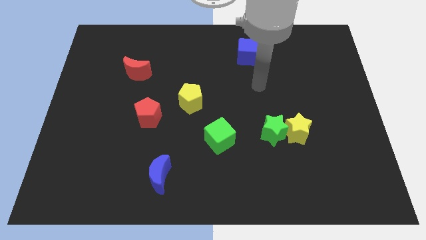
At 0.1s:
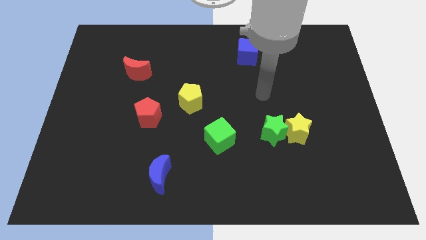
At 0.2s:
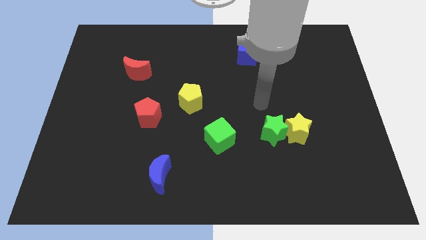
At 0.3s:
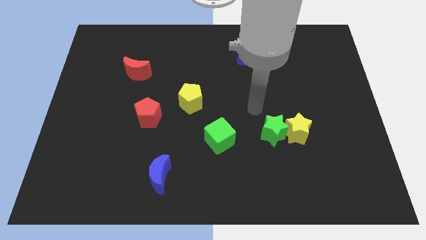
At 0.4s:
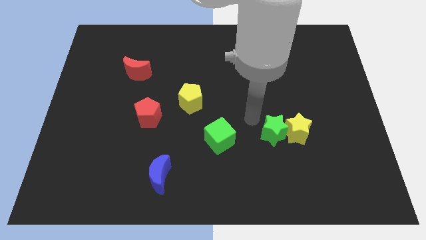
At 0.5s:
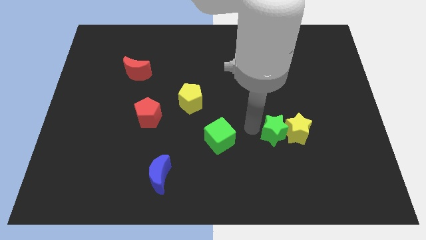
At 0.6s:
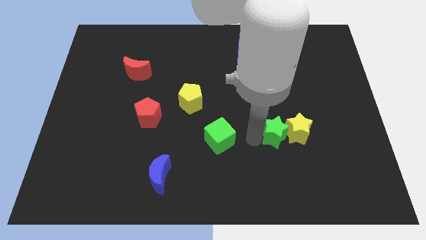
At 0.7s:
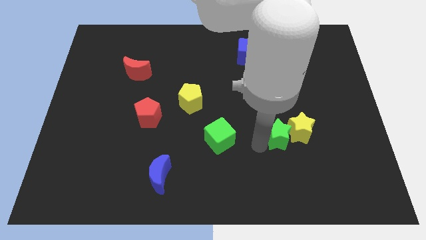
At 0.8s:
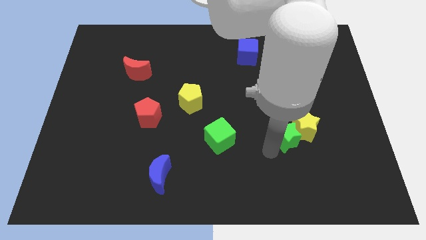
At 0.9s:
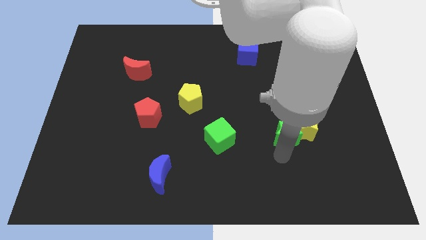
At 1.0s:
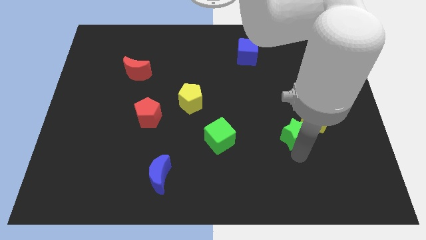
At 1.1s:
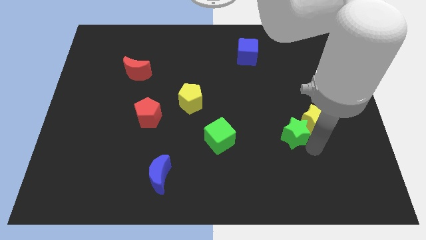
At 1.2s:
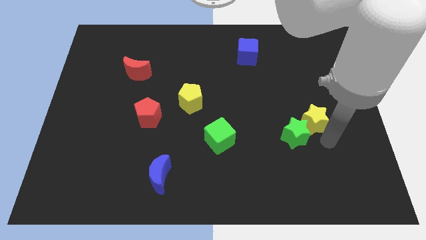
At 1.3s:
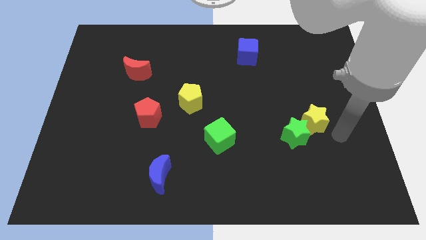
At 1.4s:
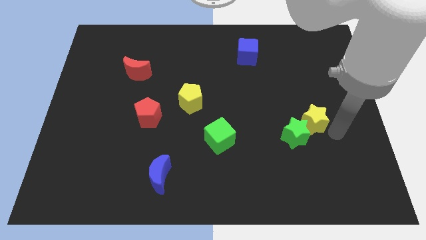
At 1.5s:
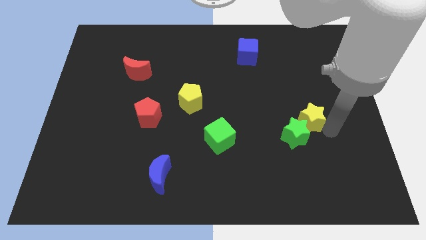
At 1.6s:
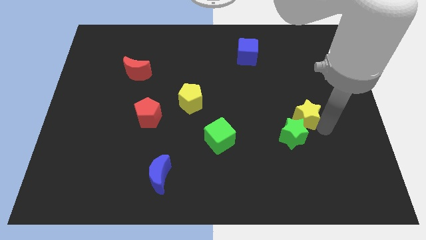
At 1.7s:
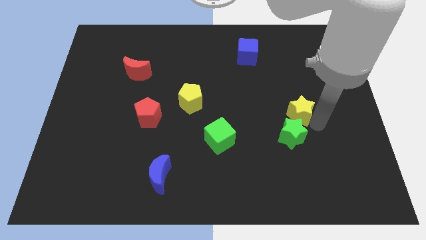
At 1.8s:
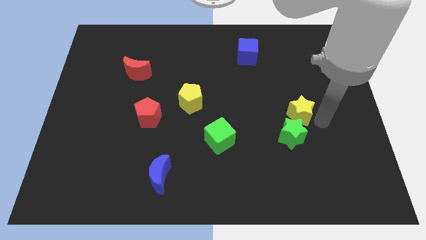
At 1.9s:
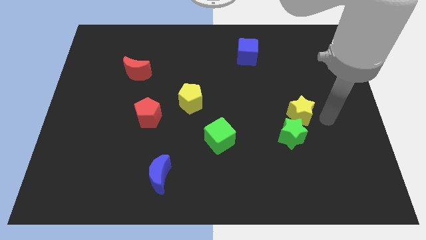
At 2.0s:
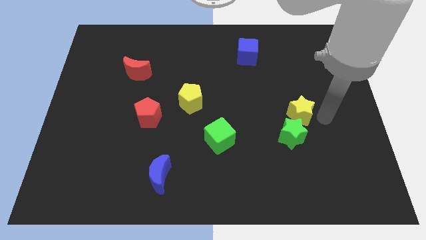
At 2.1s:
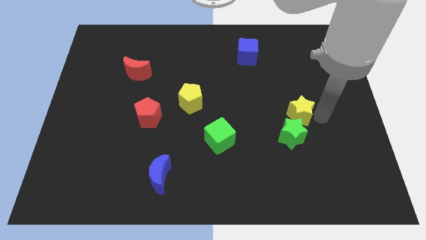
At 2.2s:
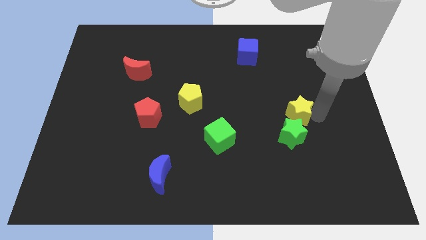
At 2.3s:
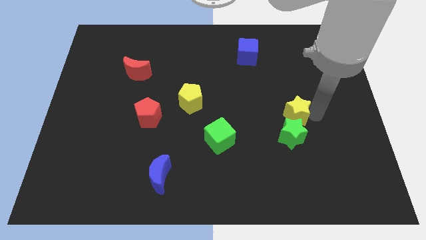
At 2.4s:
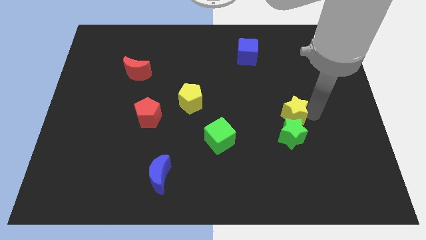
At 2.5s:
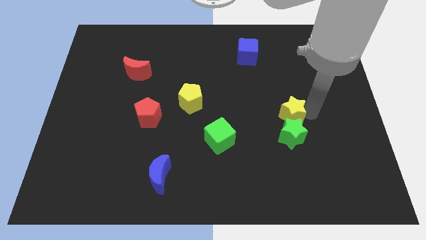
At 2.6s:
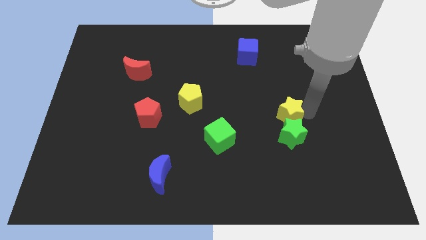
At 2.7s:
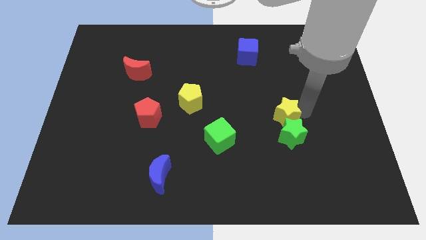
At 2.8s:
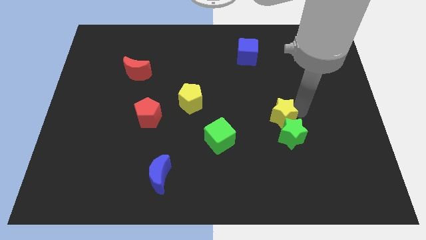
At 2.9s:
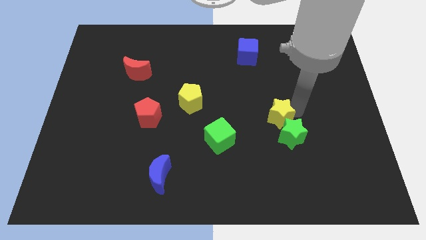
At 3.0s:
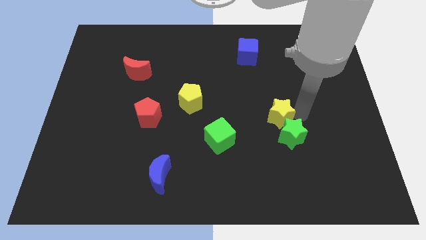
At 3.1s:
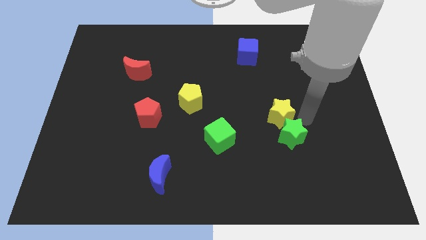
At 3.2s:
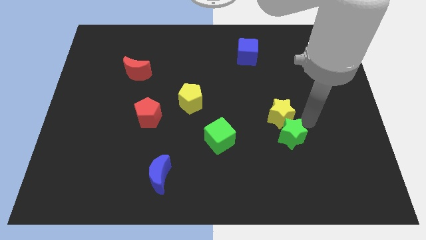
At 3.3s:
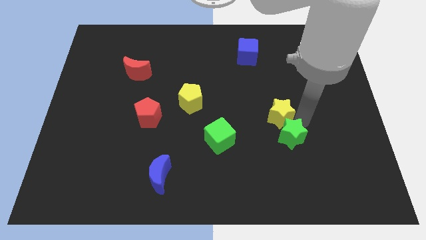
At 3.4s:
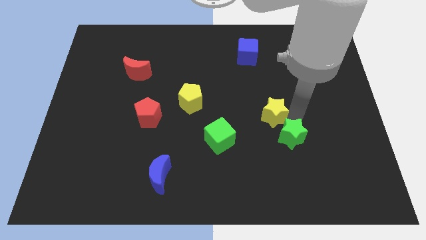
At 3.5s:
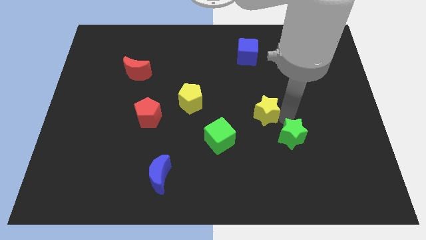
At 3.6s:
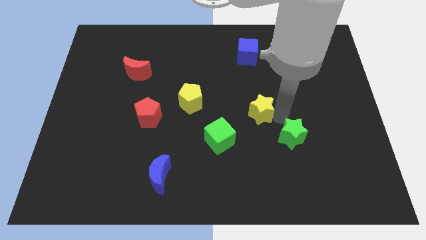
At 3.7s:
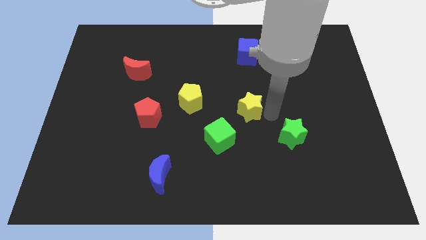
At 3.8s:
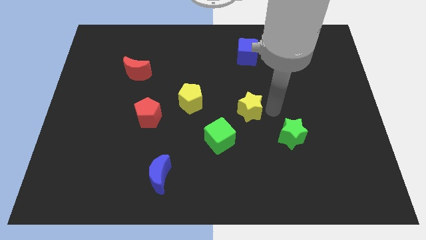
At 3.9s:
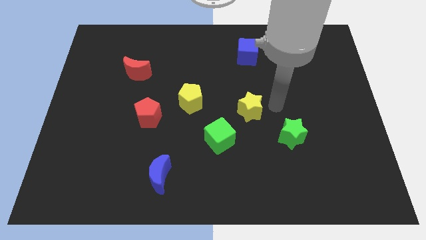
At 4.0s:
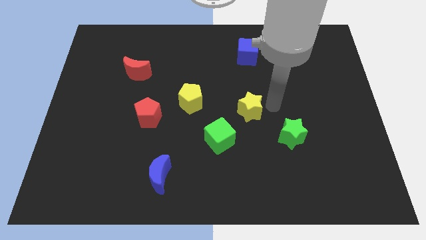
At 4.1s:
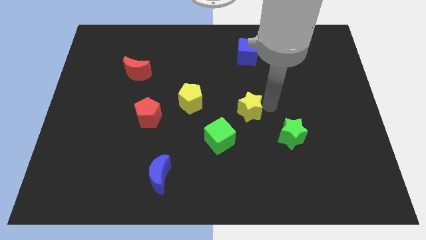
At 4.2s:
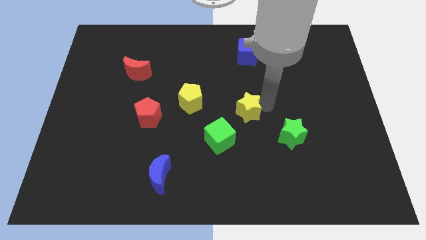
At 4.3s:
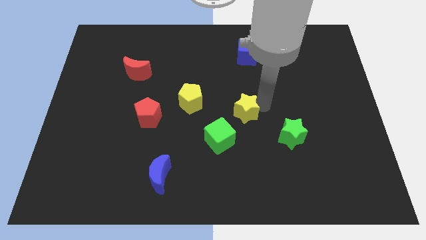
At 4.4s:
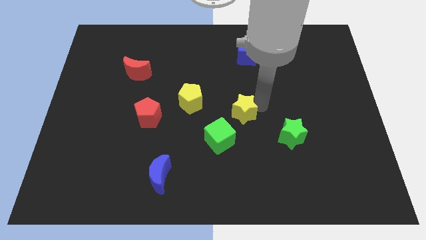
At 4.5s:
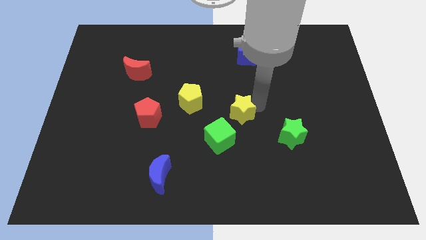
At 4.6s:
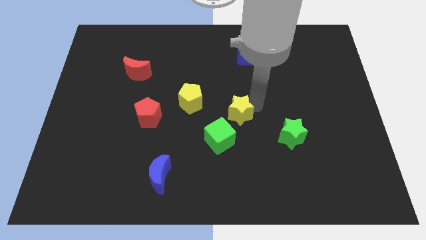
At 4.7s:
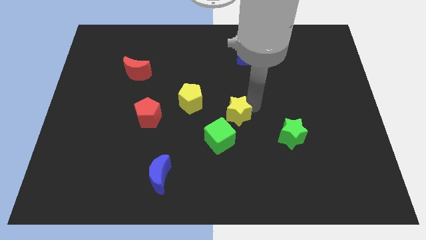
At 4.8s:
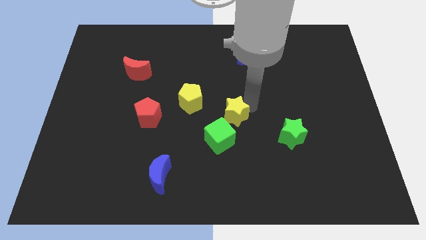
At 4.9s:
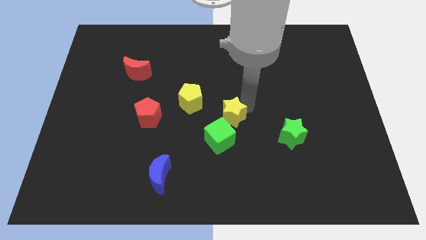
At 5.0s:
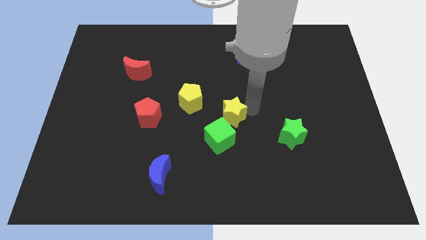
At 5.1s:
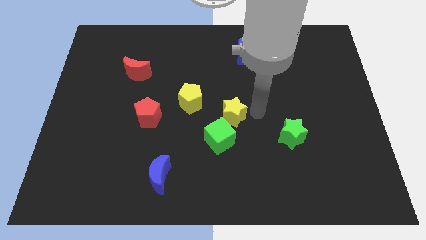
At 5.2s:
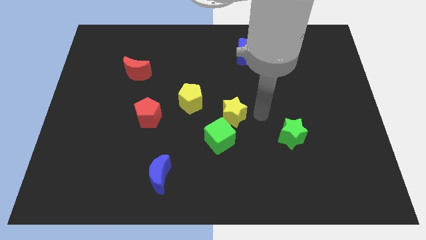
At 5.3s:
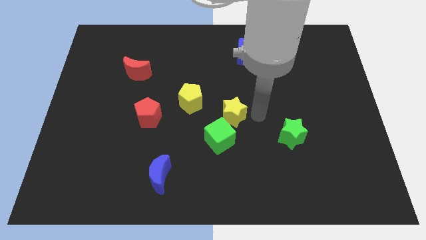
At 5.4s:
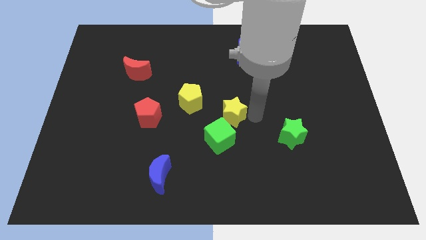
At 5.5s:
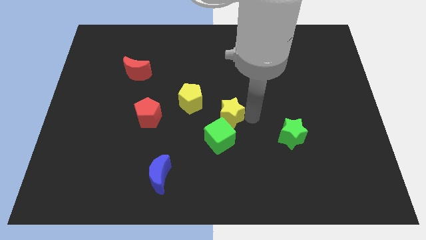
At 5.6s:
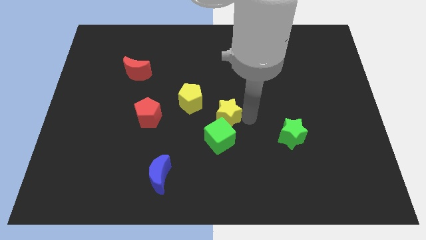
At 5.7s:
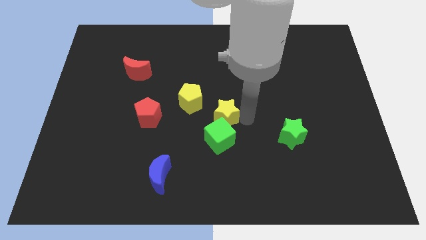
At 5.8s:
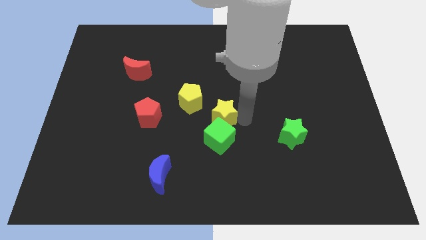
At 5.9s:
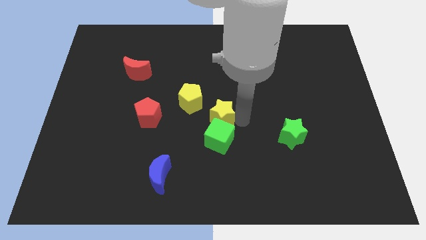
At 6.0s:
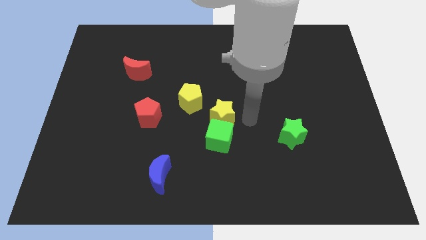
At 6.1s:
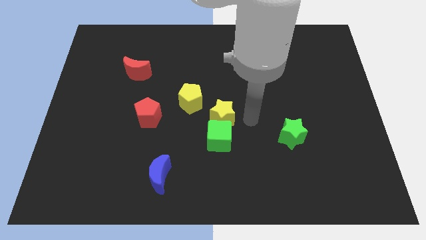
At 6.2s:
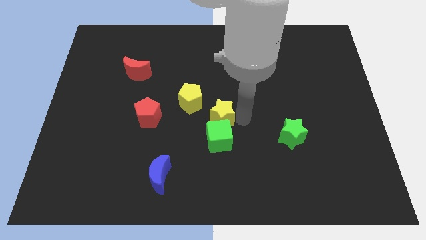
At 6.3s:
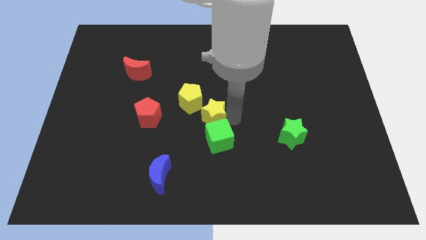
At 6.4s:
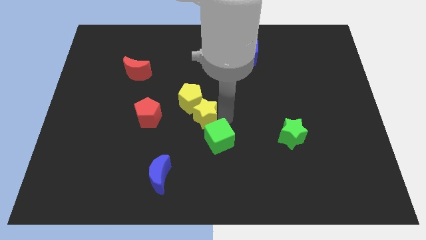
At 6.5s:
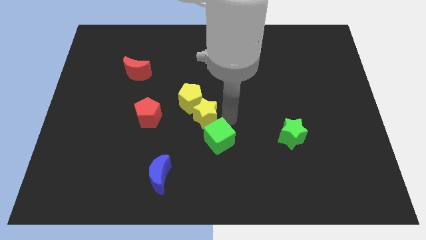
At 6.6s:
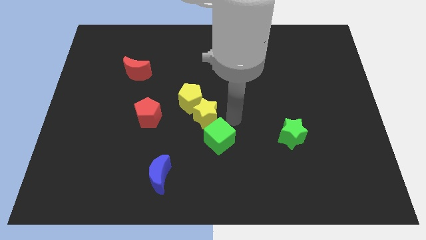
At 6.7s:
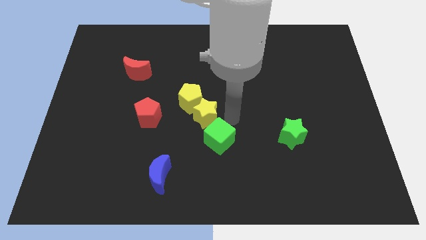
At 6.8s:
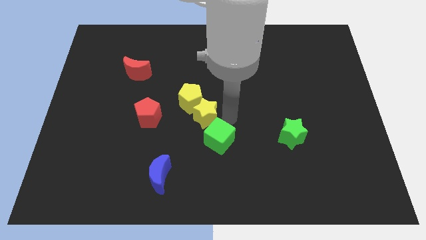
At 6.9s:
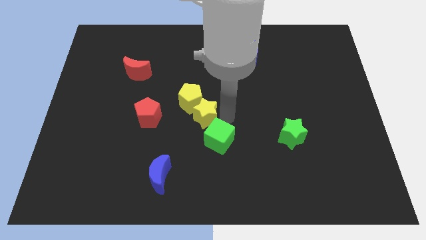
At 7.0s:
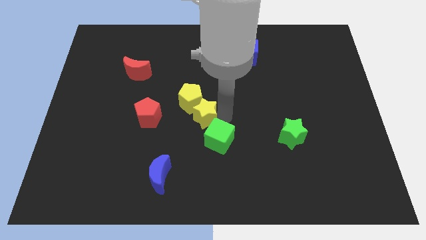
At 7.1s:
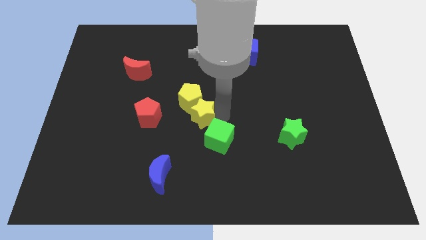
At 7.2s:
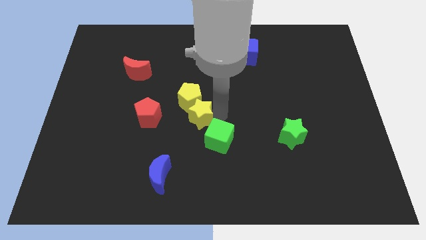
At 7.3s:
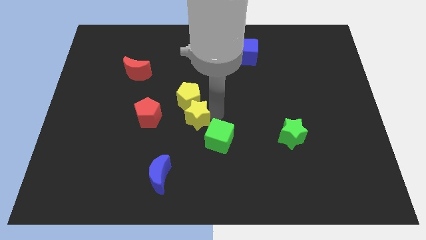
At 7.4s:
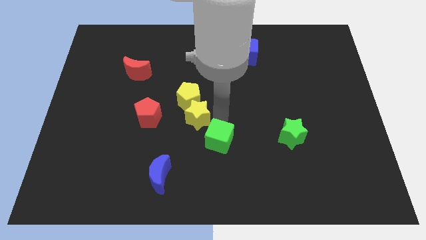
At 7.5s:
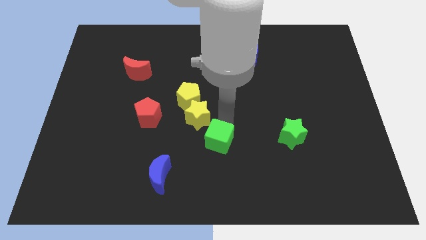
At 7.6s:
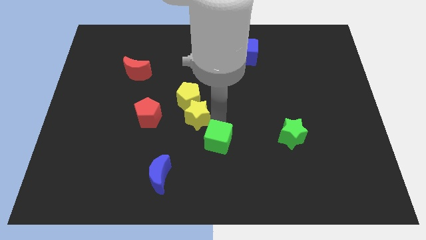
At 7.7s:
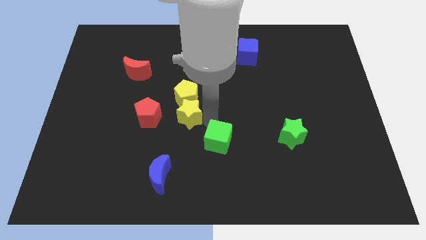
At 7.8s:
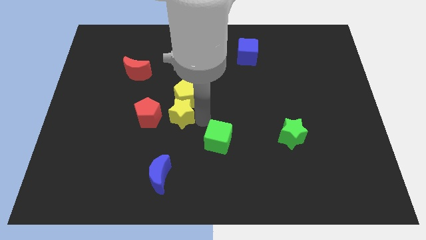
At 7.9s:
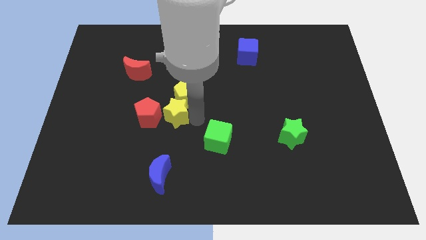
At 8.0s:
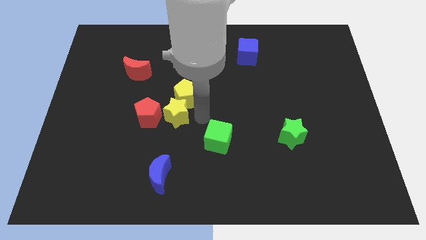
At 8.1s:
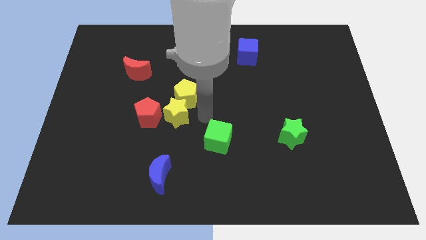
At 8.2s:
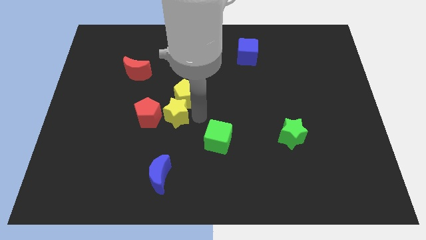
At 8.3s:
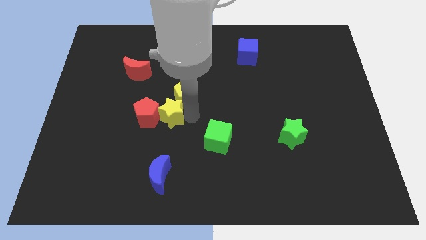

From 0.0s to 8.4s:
push the yellow star towards the red pentagon
